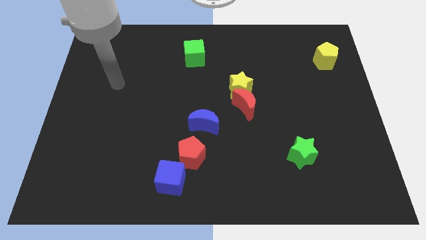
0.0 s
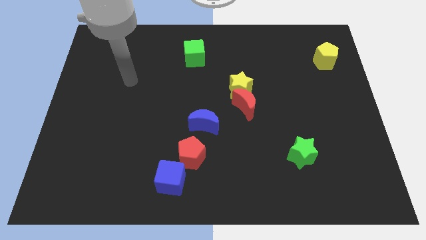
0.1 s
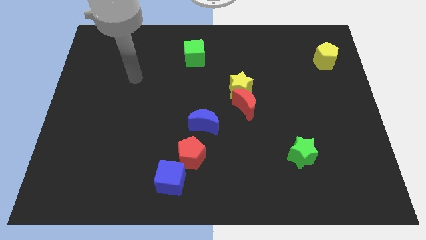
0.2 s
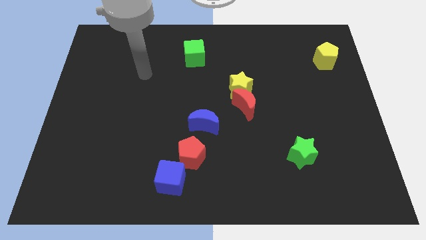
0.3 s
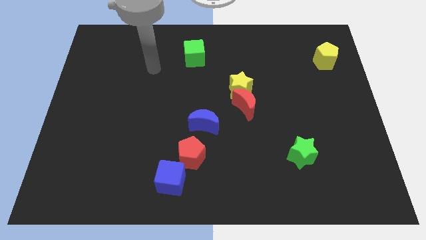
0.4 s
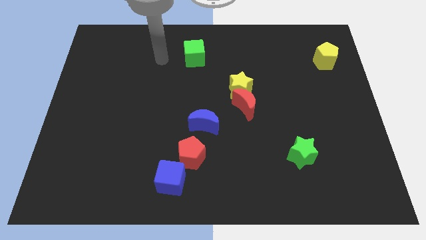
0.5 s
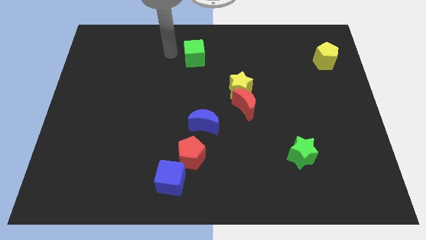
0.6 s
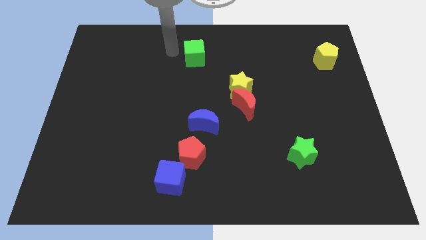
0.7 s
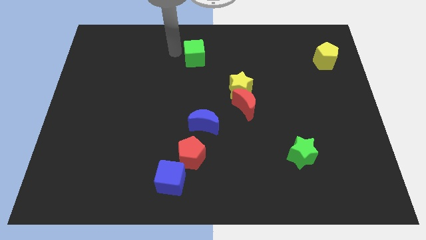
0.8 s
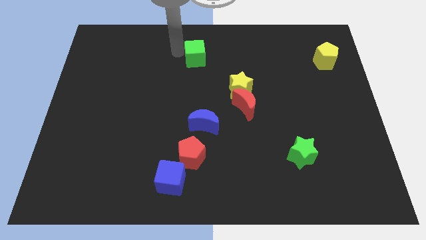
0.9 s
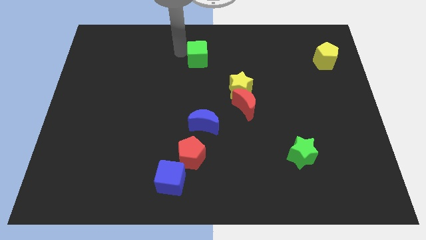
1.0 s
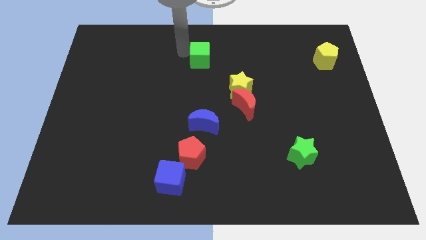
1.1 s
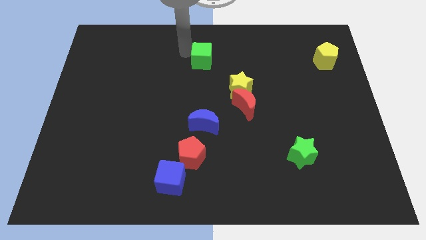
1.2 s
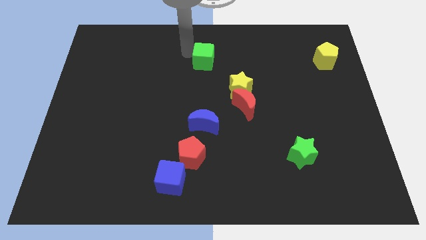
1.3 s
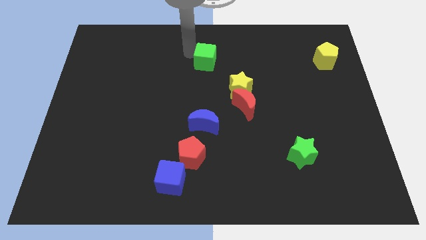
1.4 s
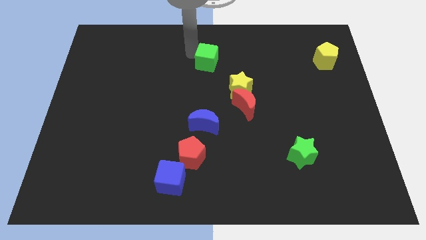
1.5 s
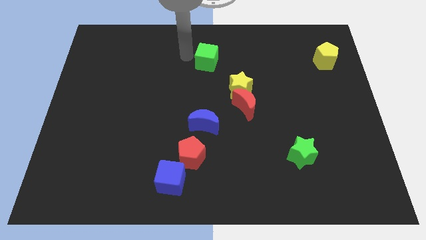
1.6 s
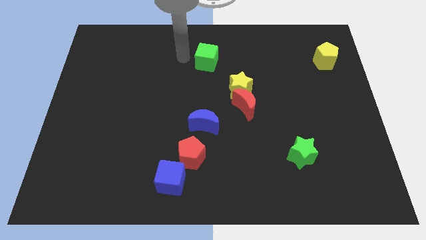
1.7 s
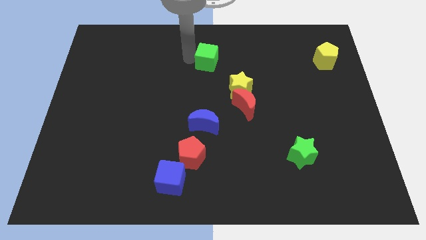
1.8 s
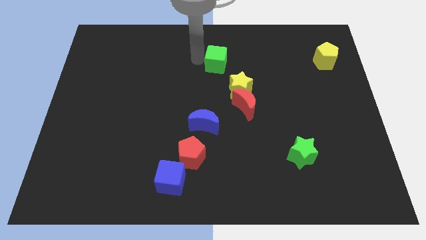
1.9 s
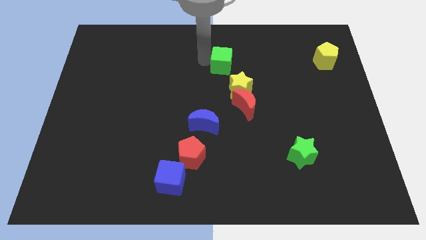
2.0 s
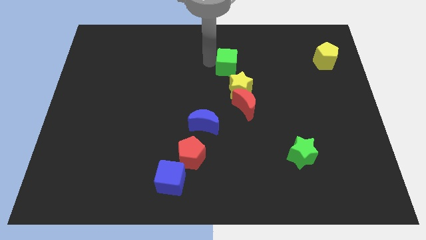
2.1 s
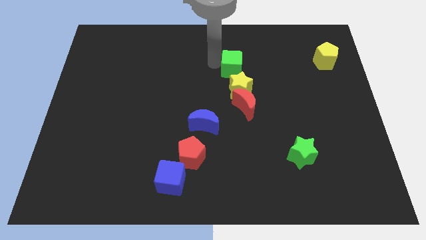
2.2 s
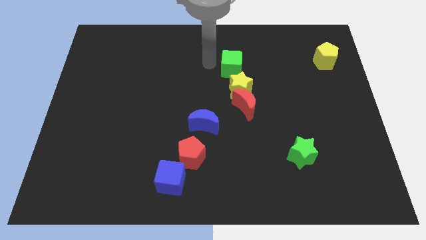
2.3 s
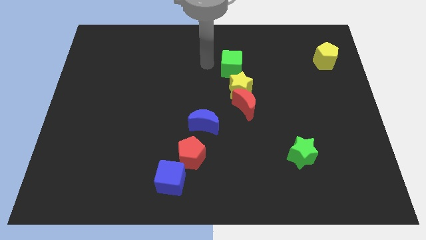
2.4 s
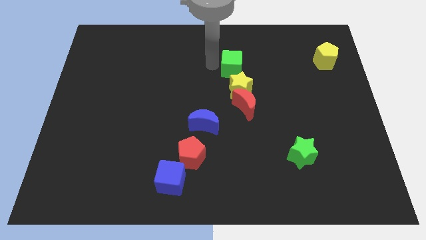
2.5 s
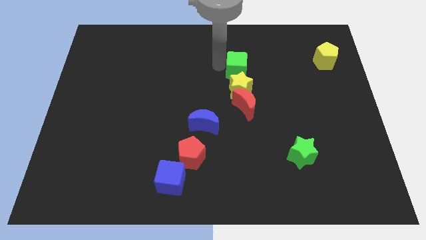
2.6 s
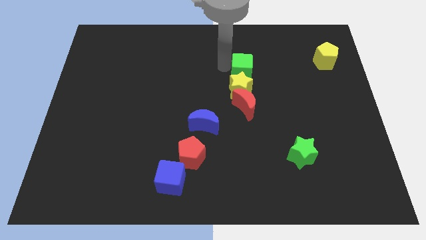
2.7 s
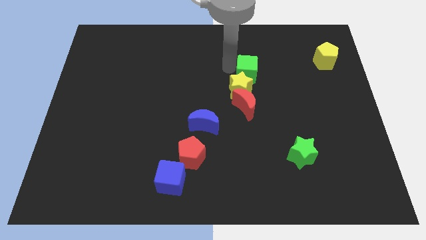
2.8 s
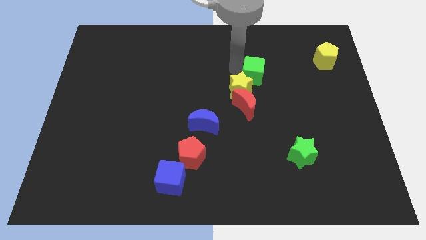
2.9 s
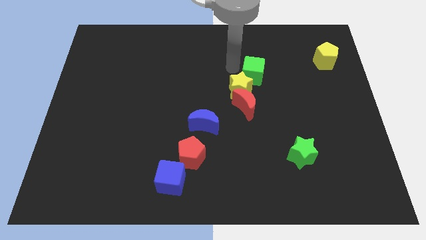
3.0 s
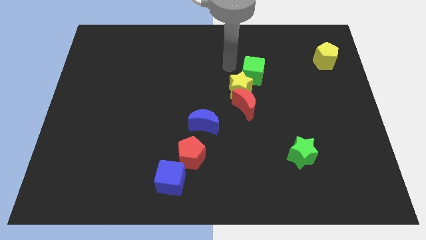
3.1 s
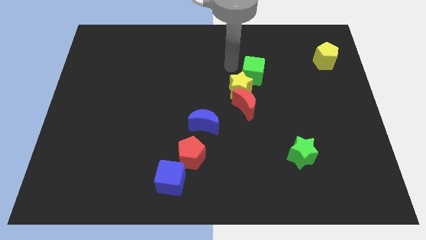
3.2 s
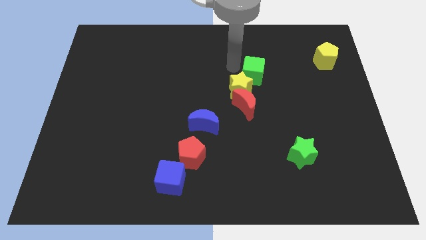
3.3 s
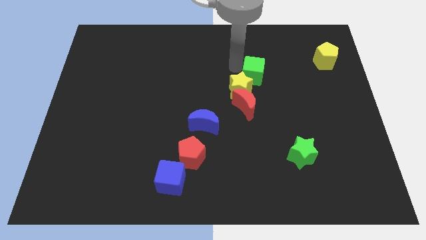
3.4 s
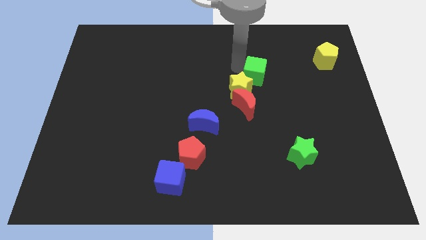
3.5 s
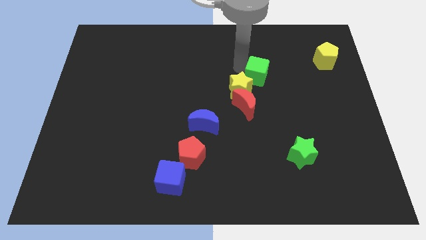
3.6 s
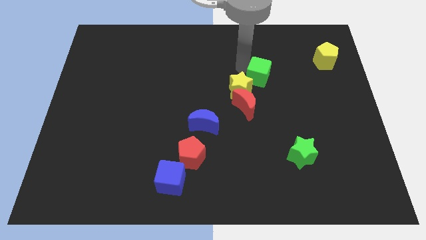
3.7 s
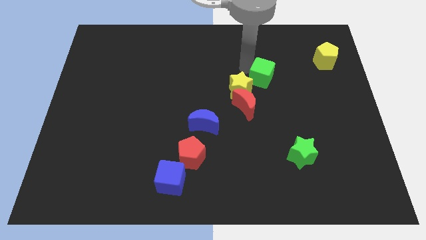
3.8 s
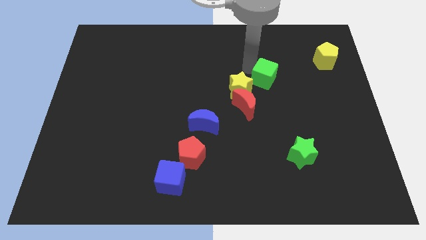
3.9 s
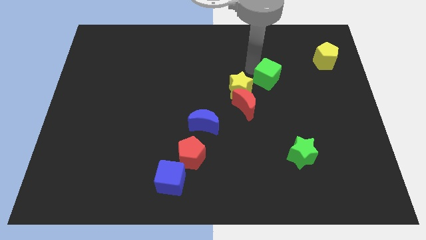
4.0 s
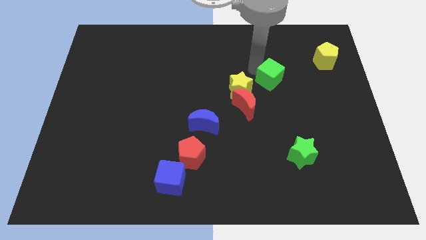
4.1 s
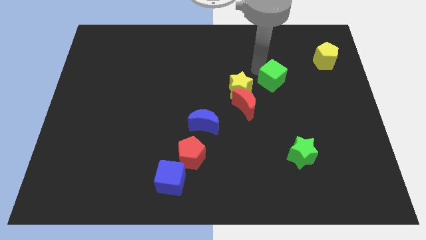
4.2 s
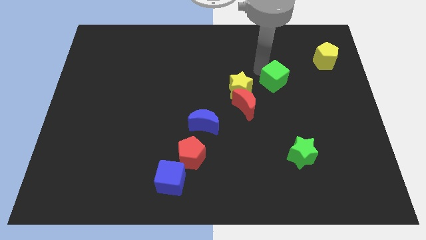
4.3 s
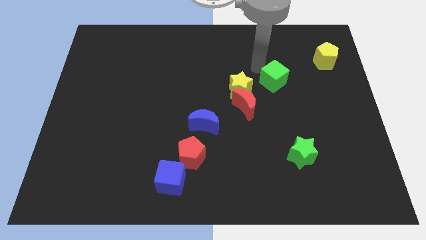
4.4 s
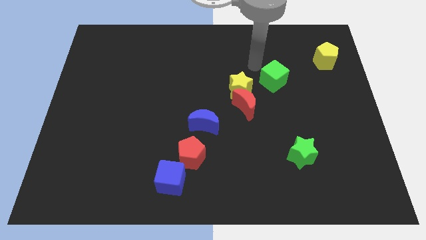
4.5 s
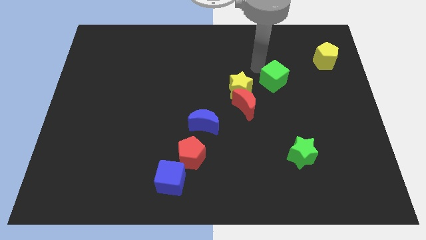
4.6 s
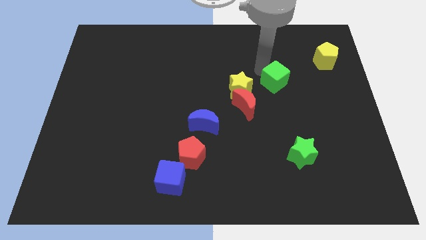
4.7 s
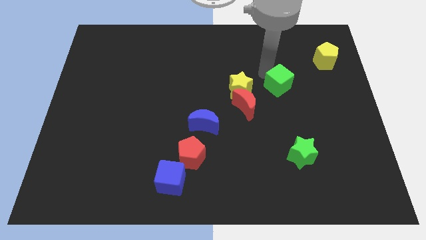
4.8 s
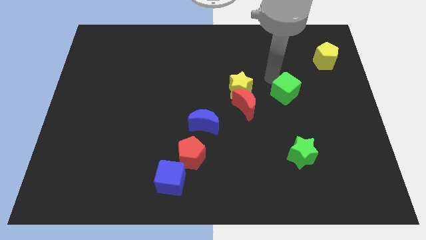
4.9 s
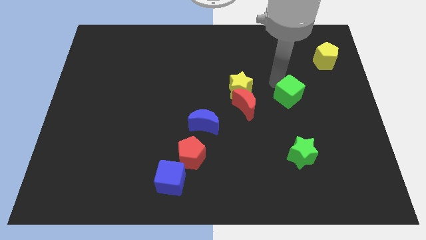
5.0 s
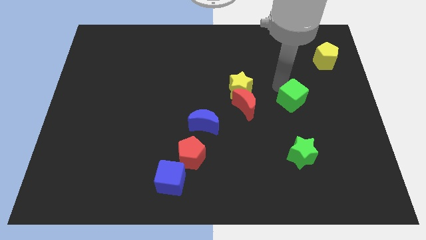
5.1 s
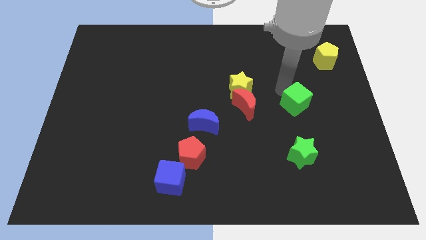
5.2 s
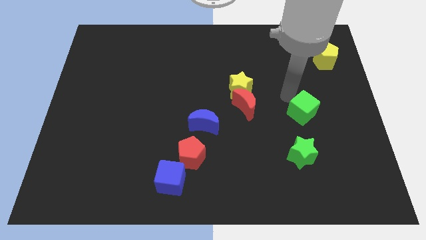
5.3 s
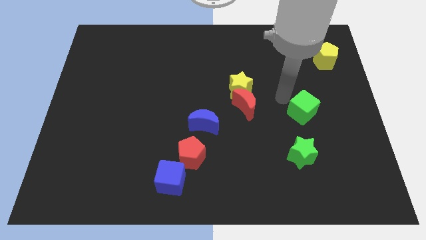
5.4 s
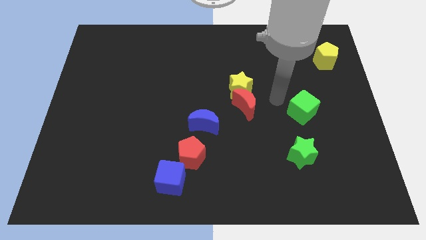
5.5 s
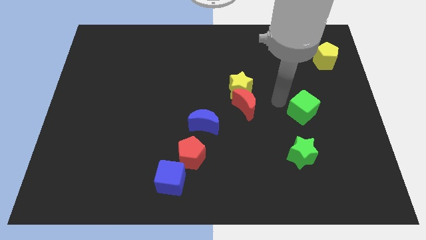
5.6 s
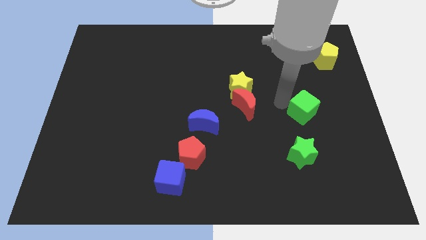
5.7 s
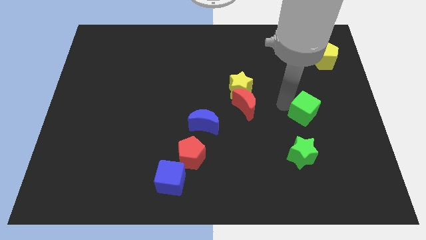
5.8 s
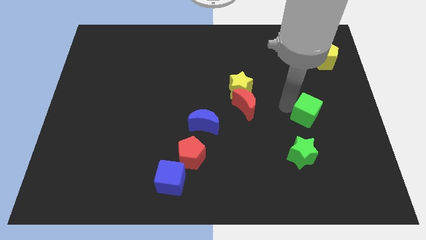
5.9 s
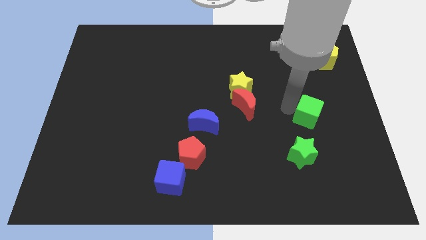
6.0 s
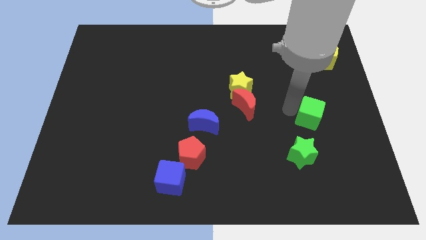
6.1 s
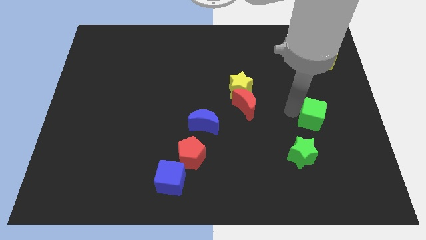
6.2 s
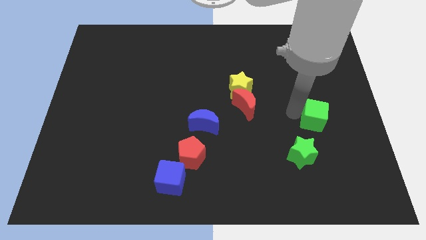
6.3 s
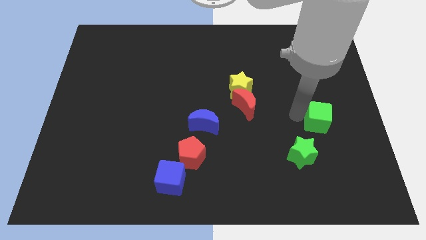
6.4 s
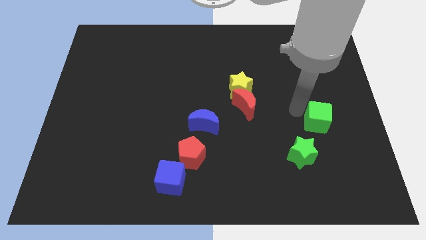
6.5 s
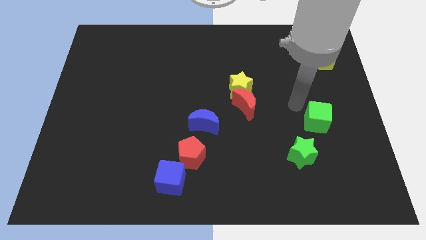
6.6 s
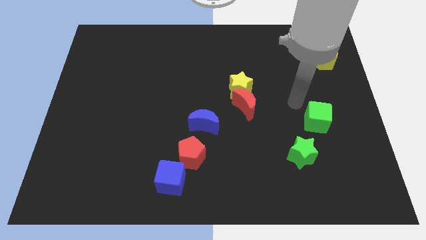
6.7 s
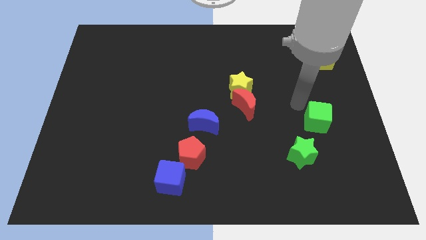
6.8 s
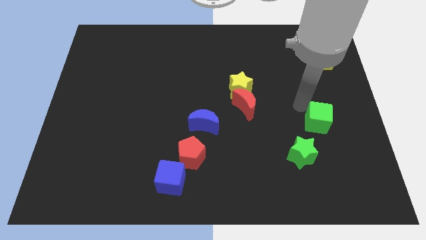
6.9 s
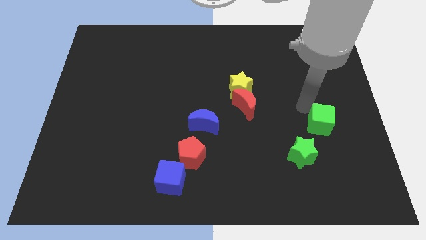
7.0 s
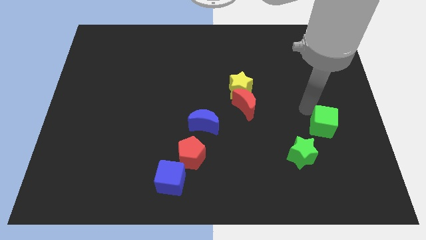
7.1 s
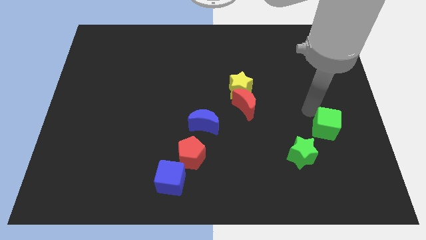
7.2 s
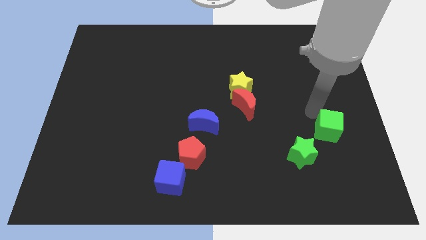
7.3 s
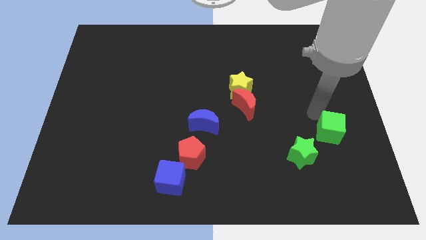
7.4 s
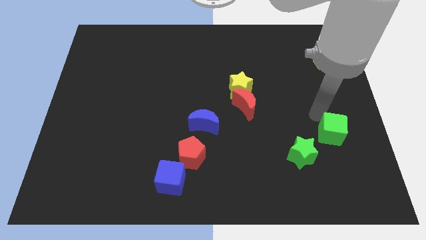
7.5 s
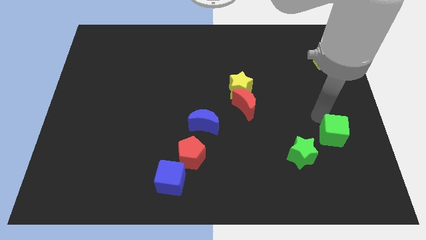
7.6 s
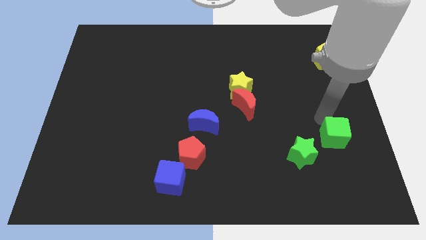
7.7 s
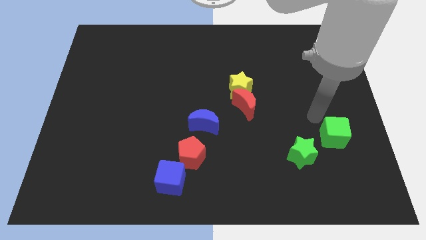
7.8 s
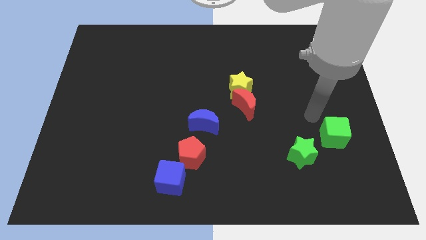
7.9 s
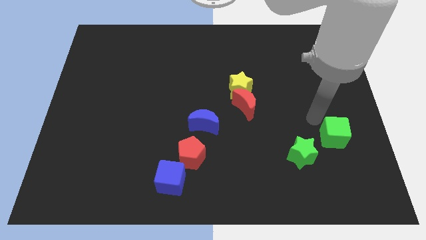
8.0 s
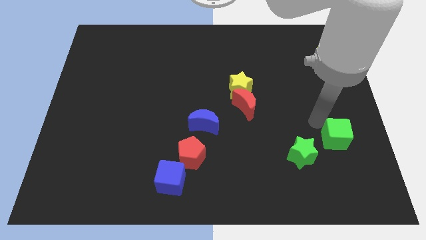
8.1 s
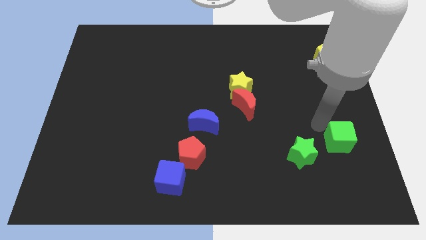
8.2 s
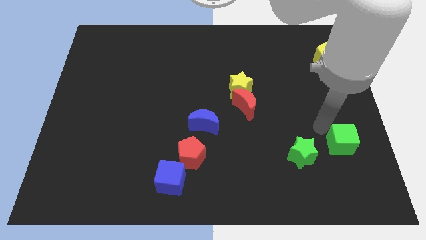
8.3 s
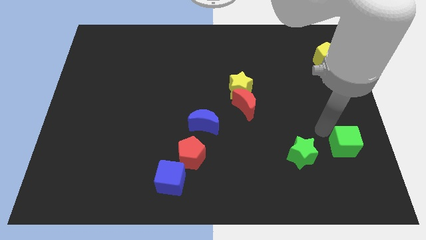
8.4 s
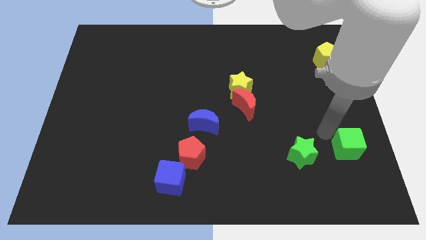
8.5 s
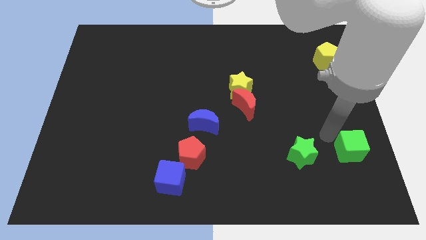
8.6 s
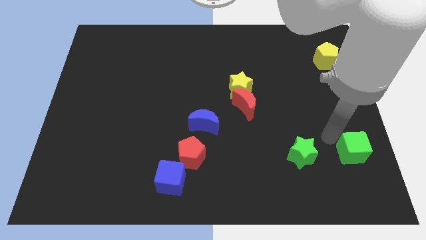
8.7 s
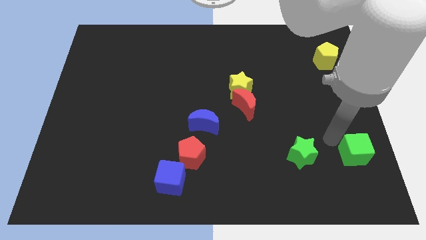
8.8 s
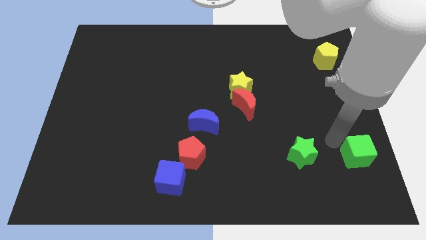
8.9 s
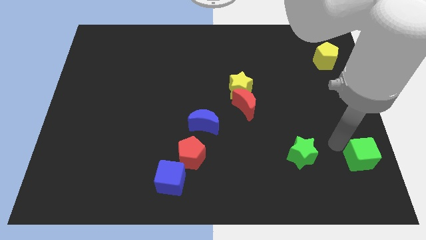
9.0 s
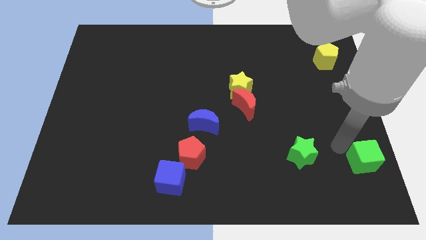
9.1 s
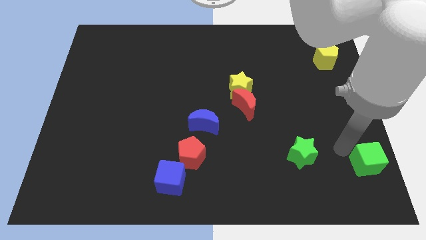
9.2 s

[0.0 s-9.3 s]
move the green cube to the lower right corner
